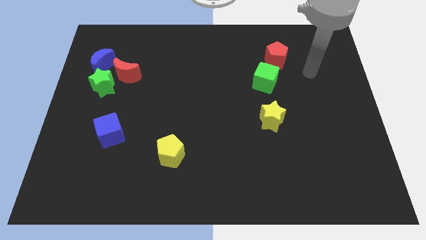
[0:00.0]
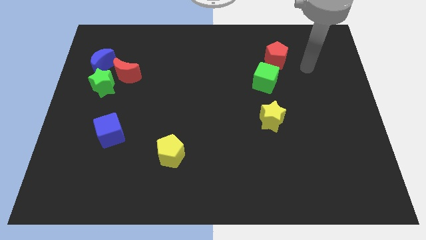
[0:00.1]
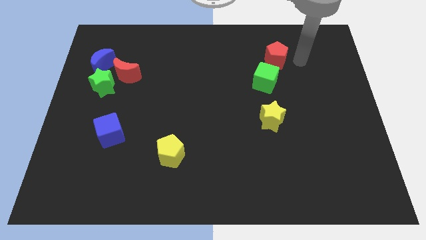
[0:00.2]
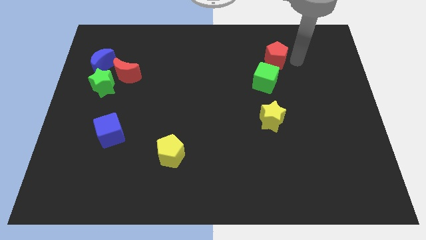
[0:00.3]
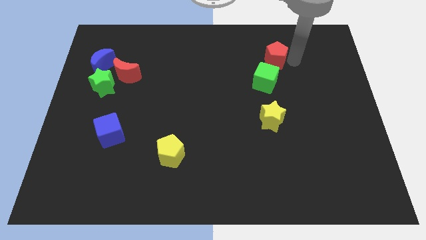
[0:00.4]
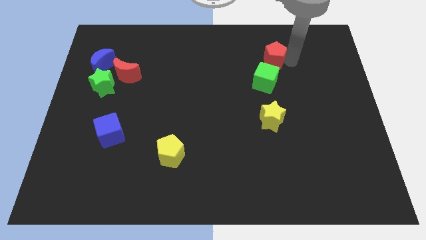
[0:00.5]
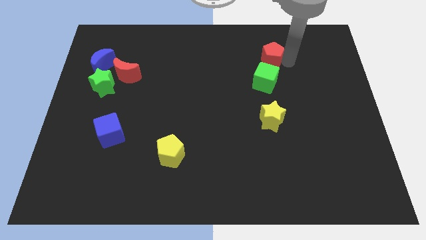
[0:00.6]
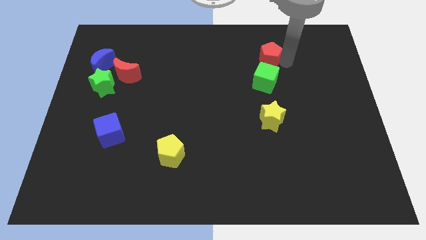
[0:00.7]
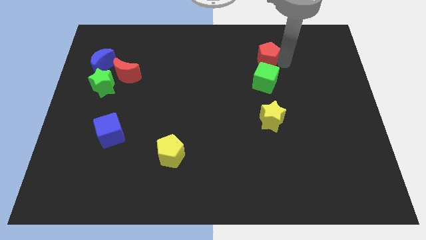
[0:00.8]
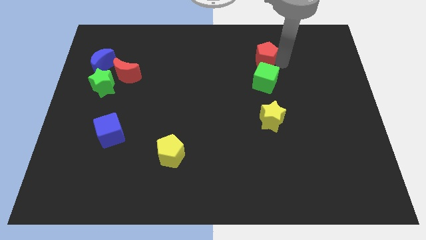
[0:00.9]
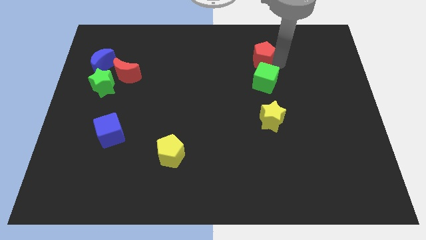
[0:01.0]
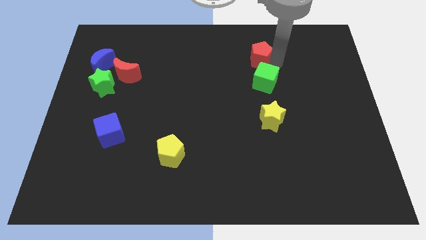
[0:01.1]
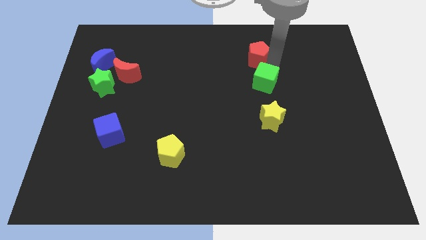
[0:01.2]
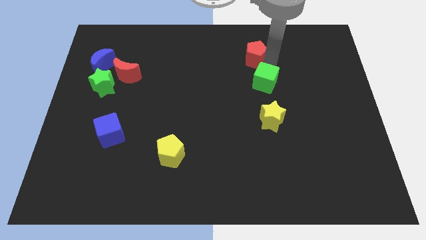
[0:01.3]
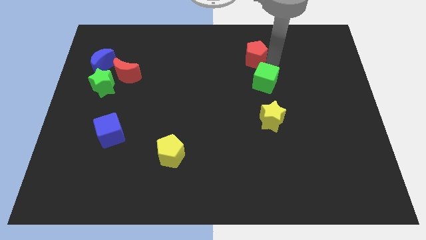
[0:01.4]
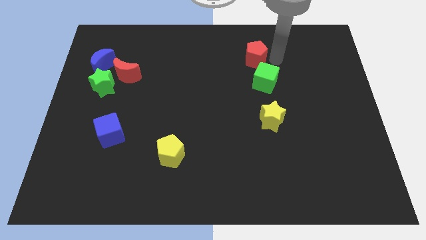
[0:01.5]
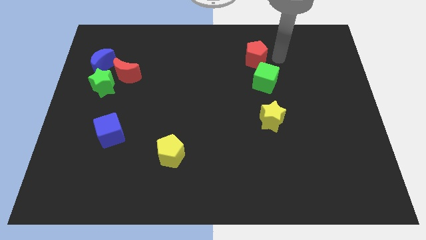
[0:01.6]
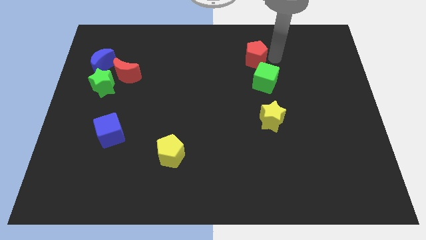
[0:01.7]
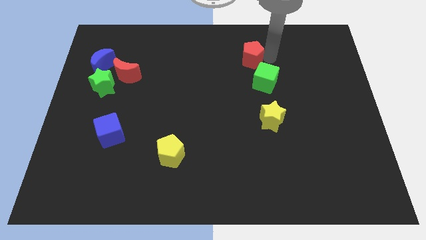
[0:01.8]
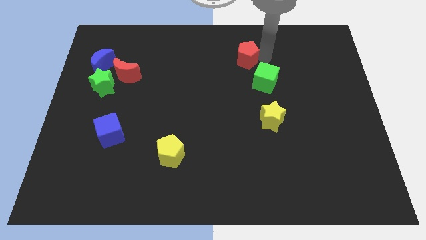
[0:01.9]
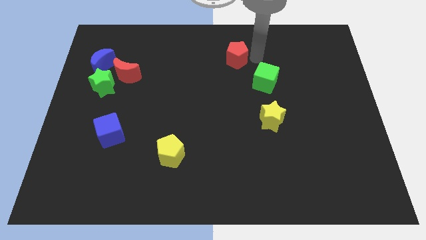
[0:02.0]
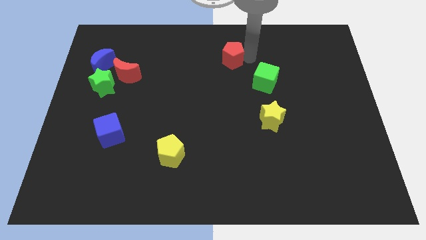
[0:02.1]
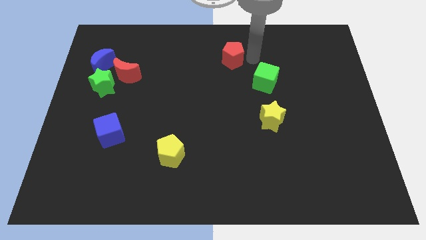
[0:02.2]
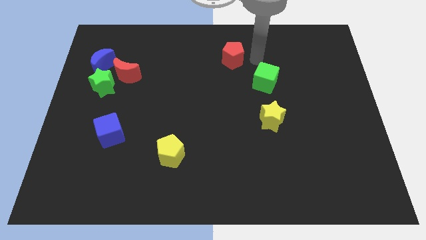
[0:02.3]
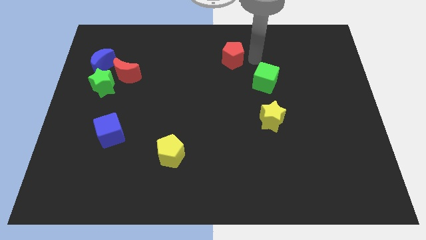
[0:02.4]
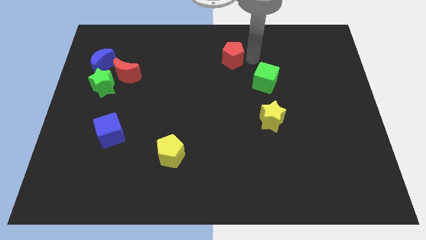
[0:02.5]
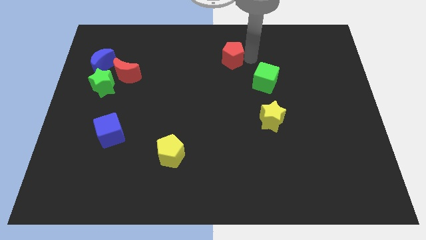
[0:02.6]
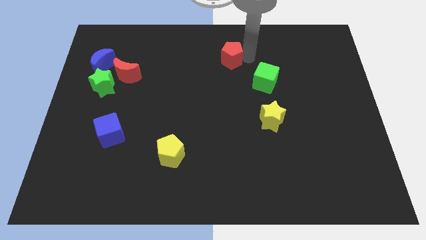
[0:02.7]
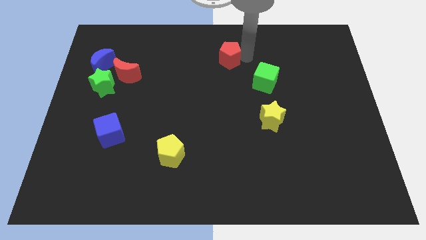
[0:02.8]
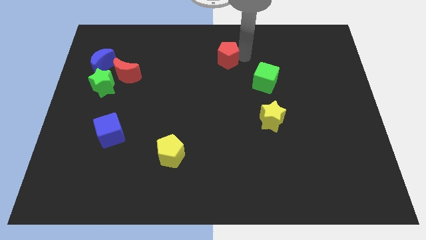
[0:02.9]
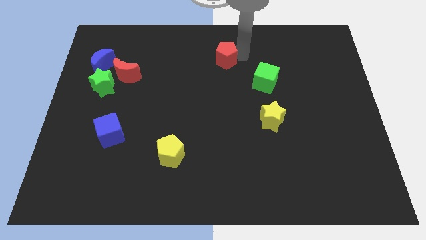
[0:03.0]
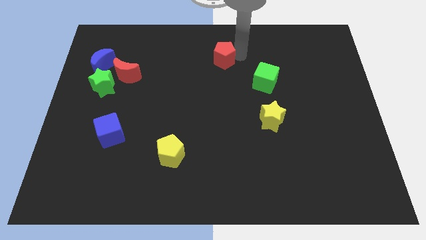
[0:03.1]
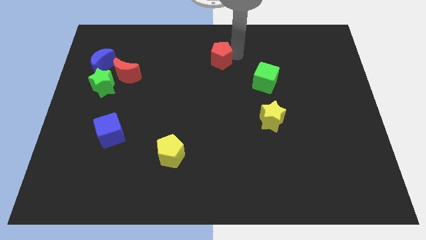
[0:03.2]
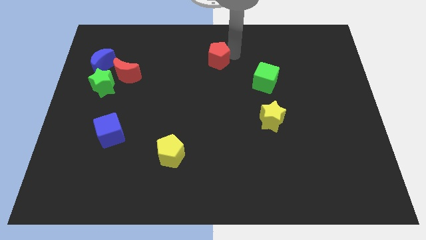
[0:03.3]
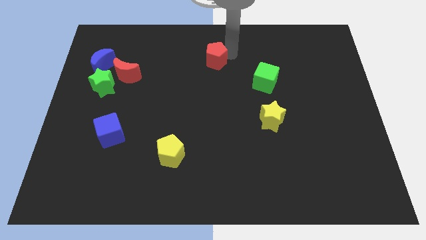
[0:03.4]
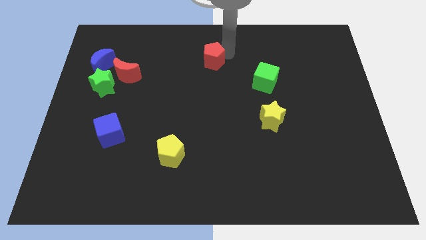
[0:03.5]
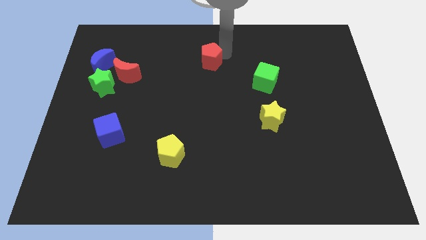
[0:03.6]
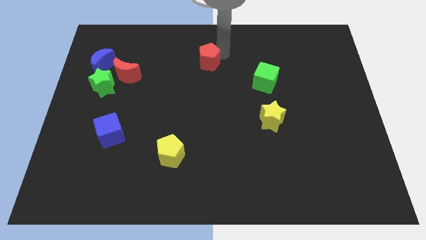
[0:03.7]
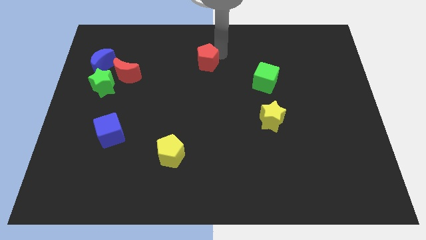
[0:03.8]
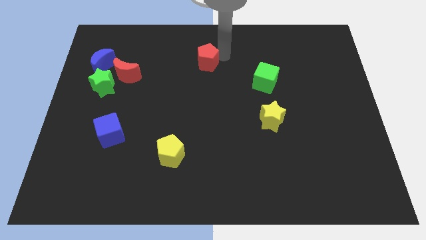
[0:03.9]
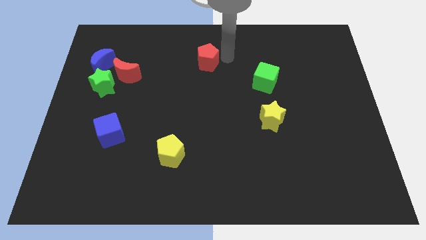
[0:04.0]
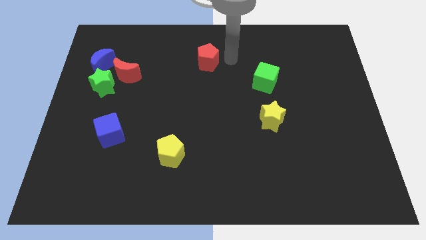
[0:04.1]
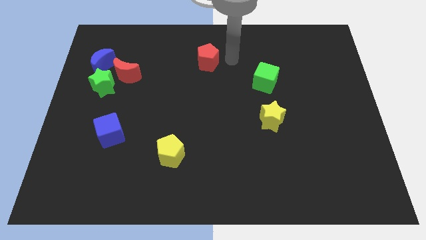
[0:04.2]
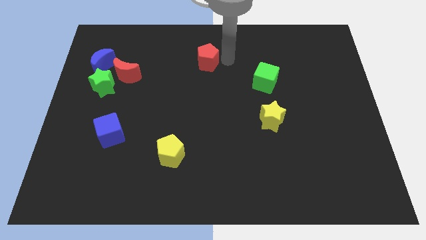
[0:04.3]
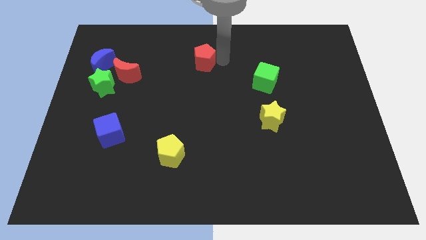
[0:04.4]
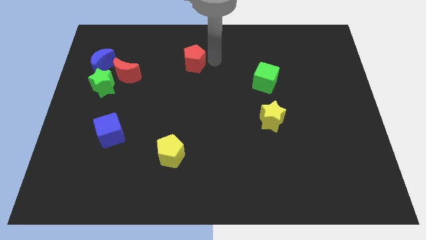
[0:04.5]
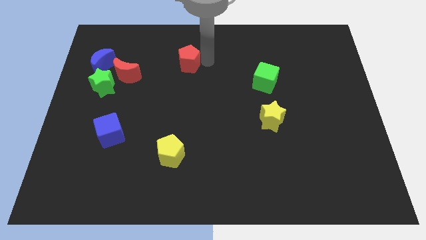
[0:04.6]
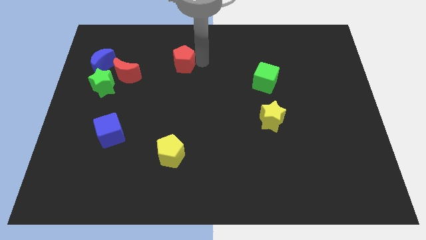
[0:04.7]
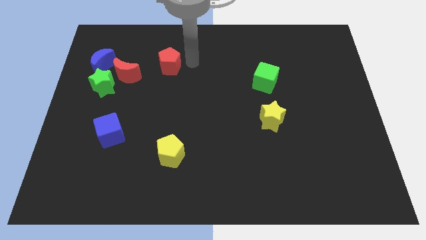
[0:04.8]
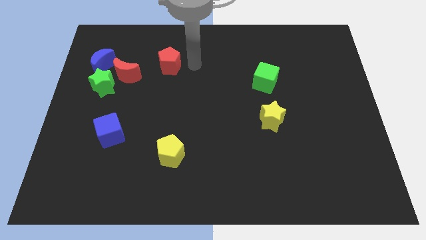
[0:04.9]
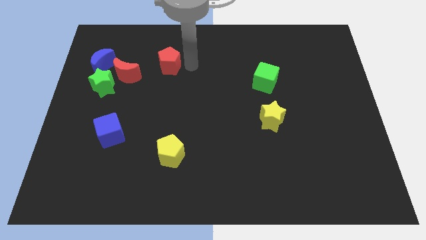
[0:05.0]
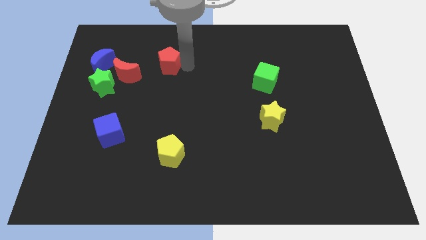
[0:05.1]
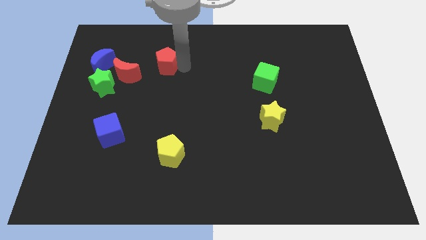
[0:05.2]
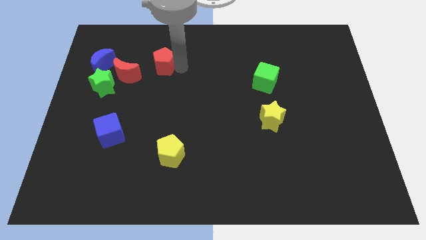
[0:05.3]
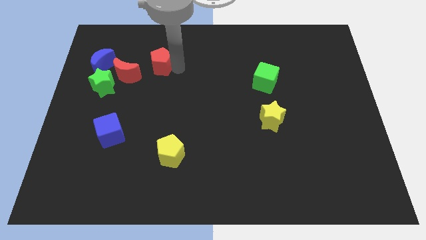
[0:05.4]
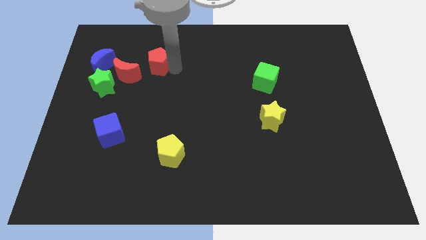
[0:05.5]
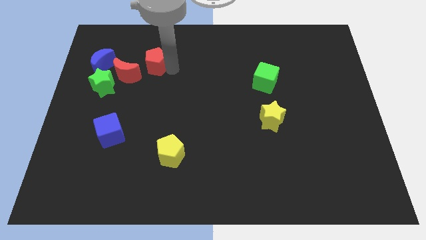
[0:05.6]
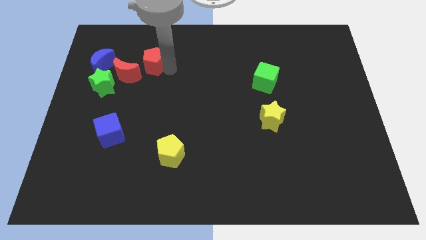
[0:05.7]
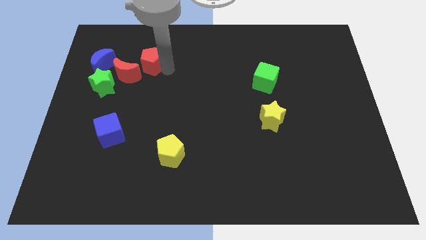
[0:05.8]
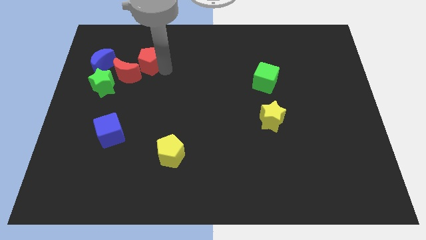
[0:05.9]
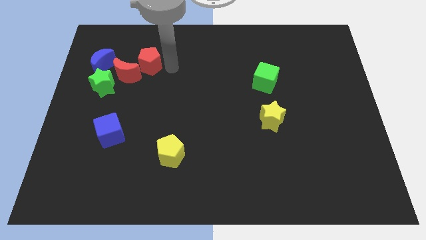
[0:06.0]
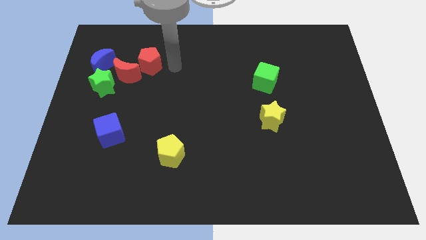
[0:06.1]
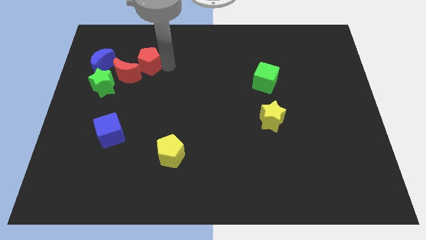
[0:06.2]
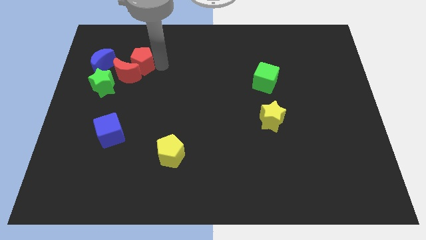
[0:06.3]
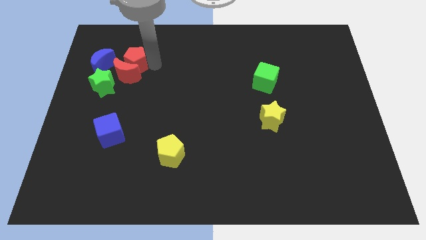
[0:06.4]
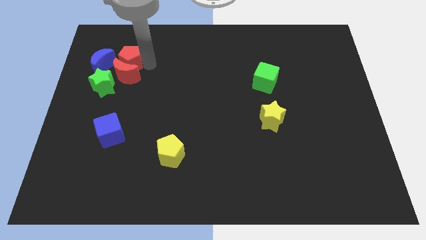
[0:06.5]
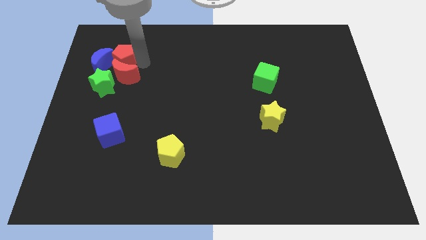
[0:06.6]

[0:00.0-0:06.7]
push the red pentagon close to the blue moon
